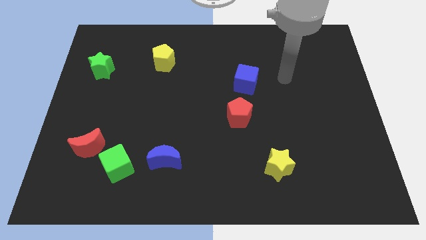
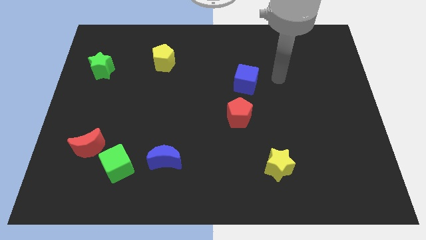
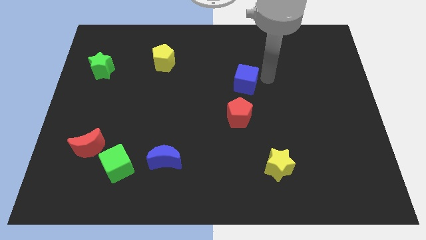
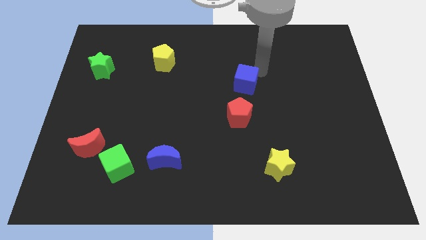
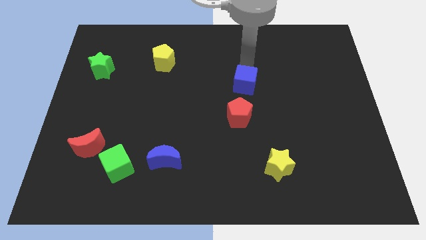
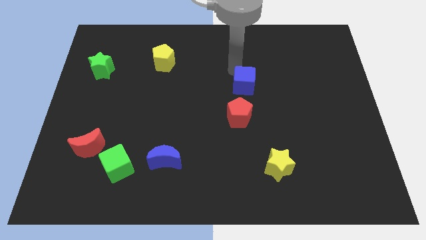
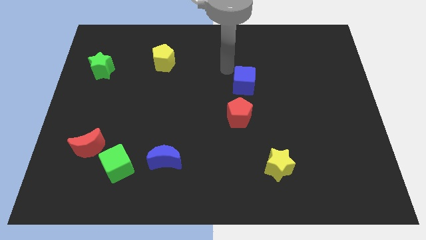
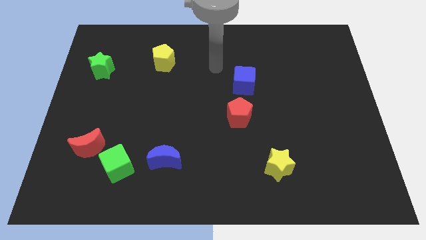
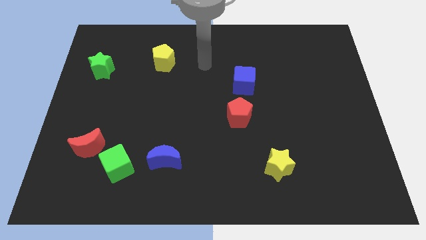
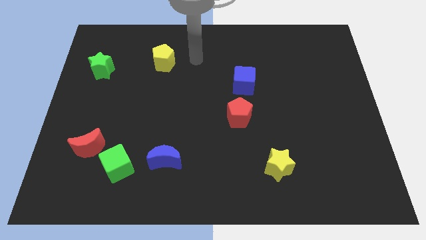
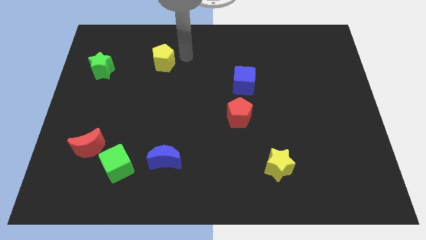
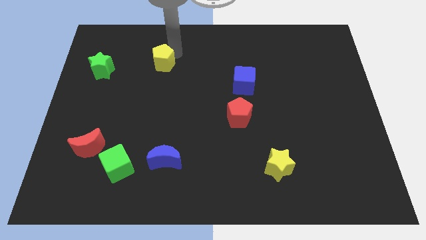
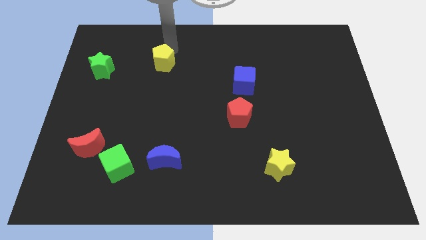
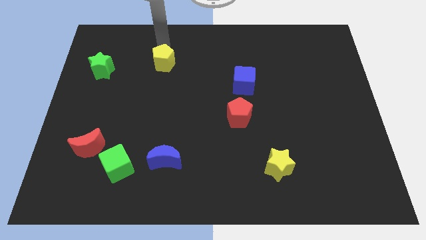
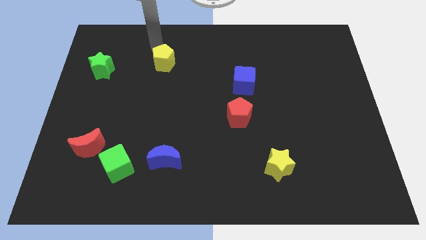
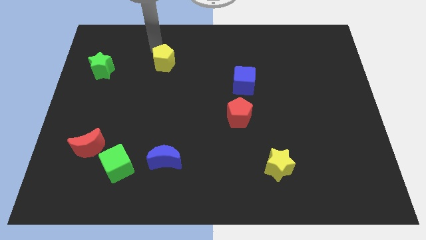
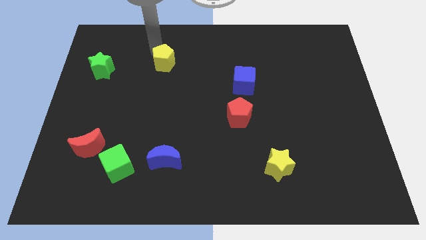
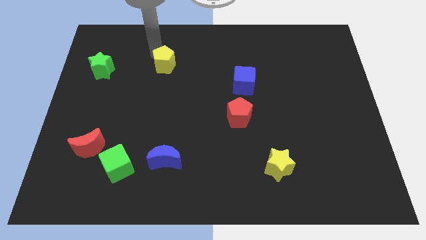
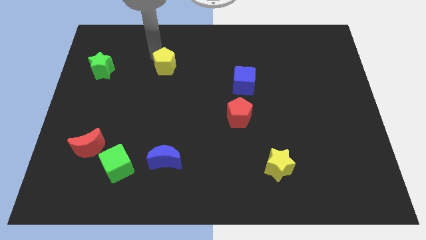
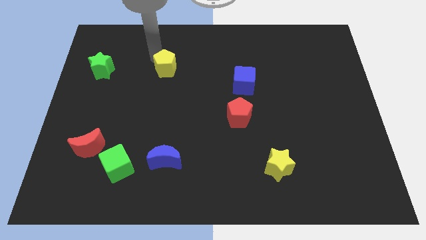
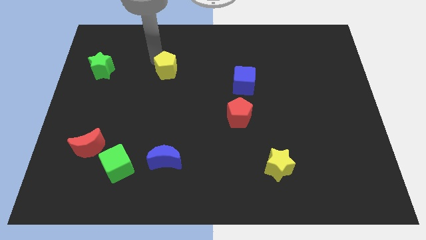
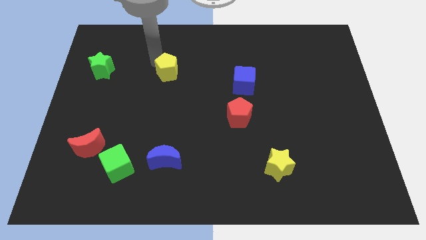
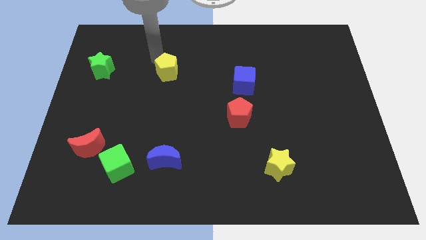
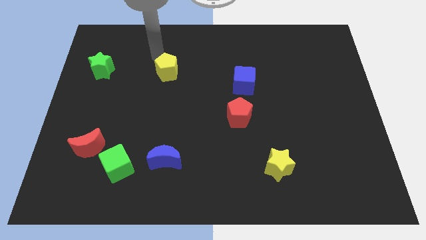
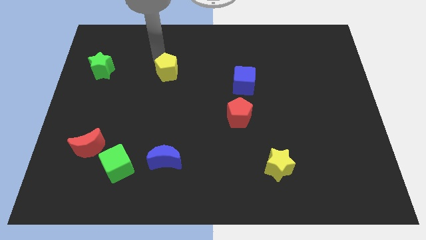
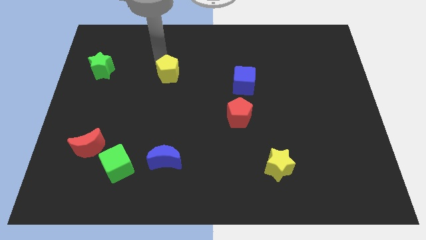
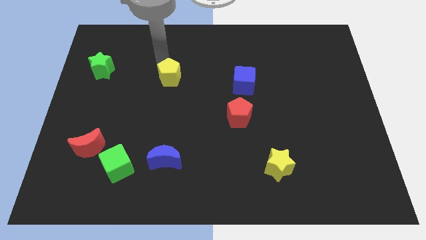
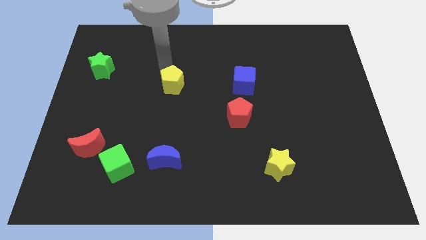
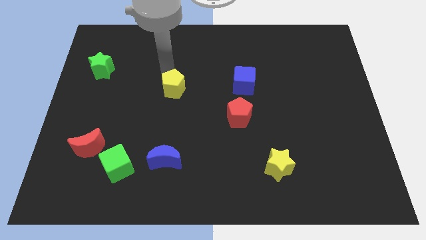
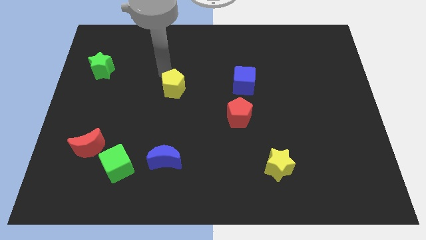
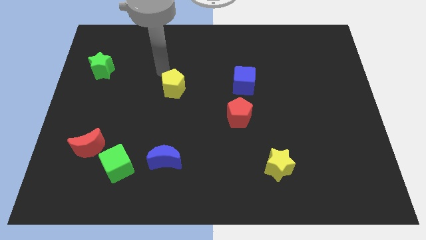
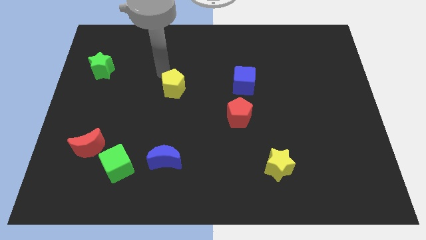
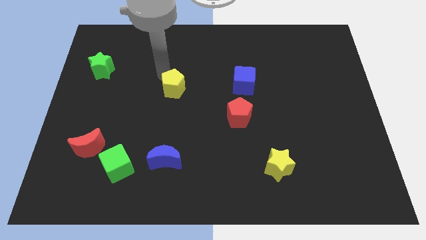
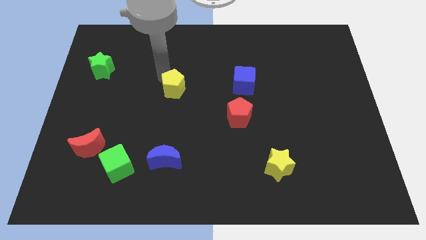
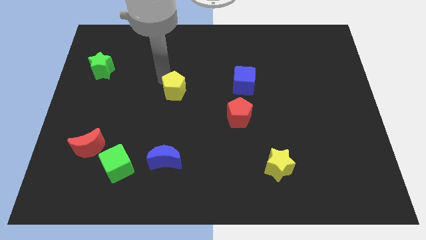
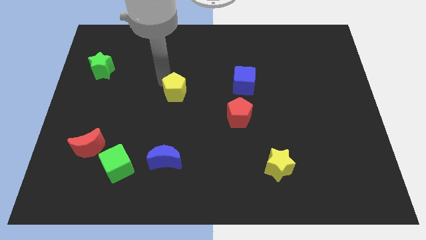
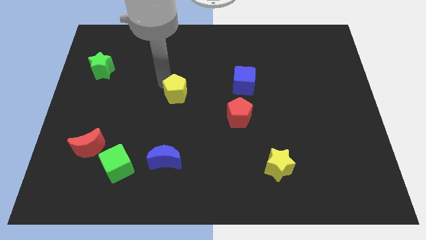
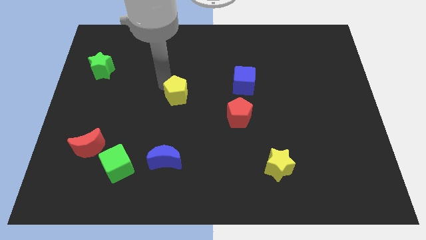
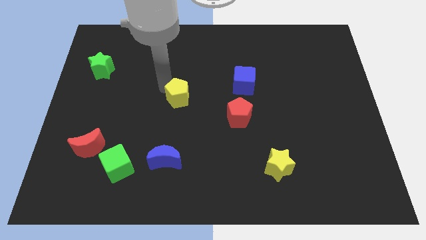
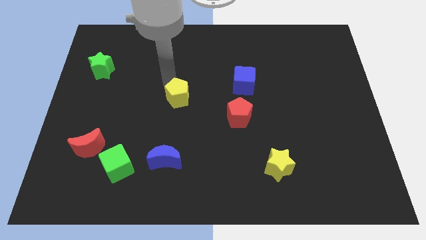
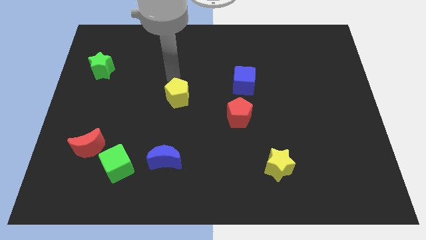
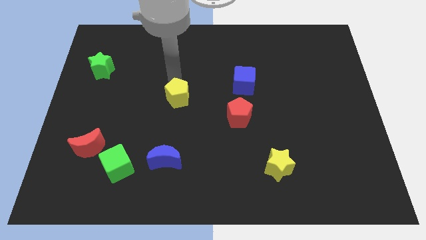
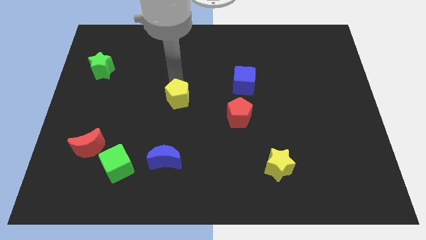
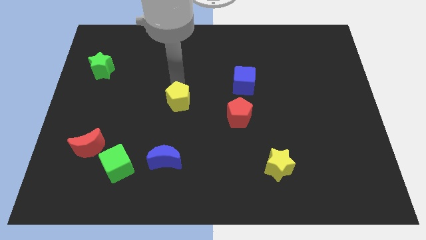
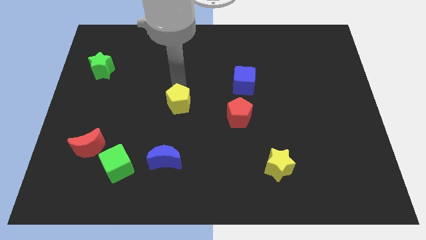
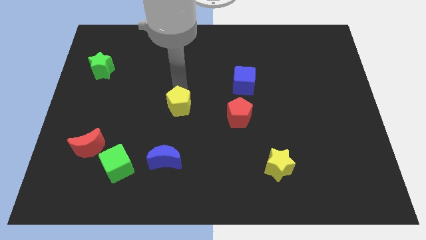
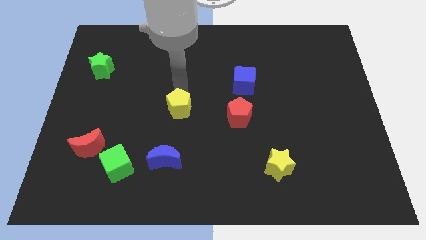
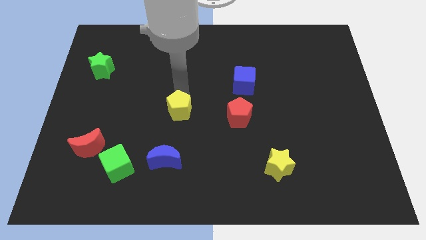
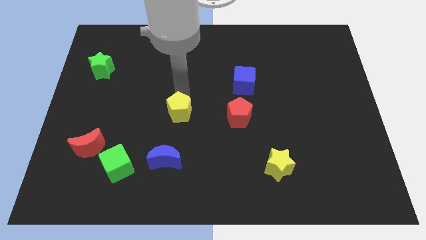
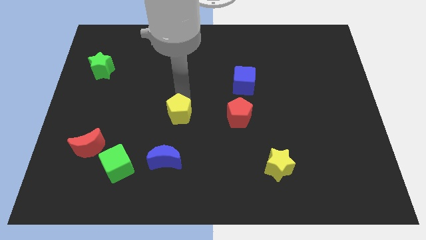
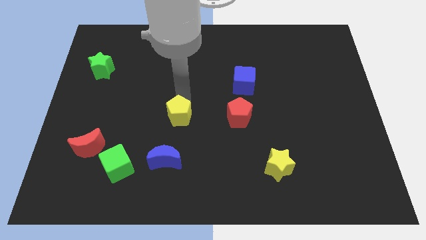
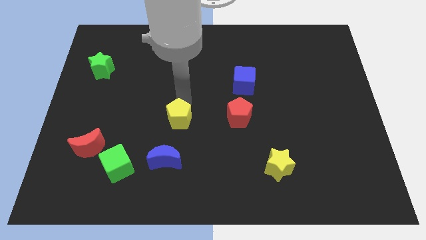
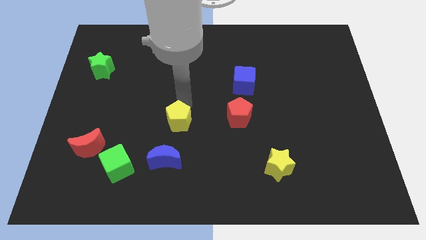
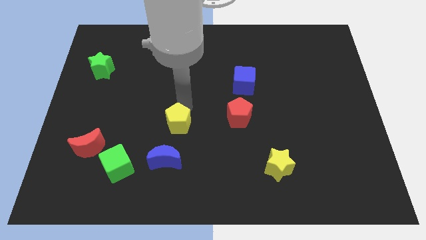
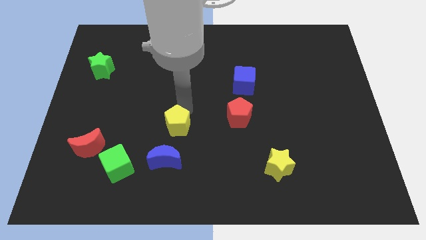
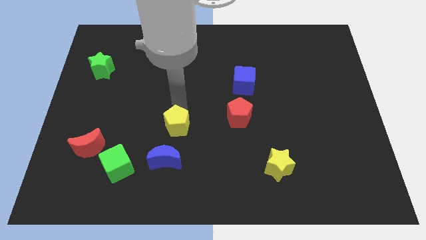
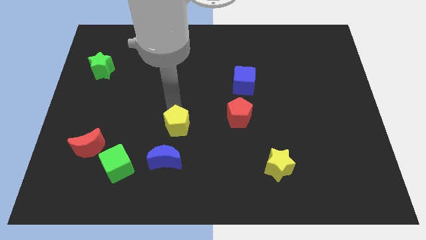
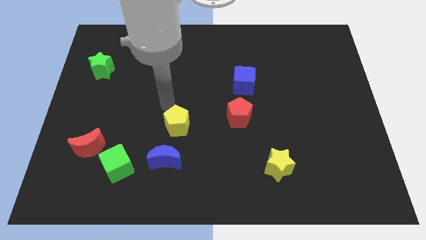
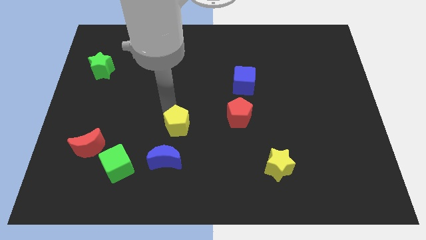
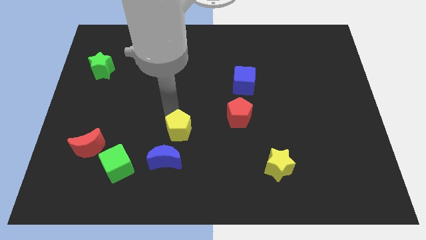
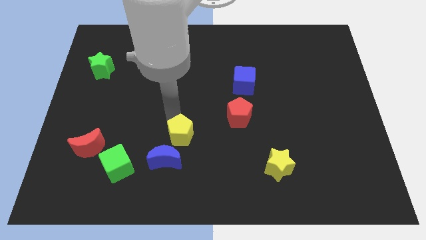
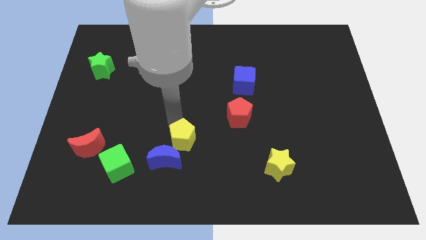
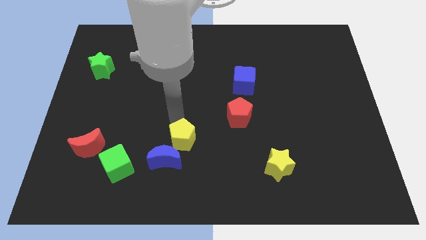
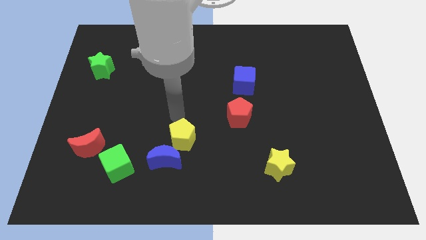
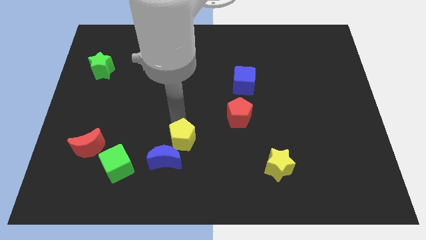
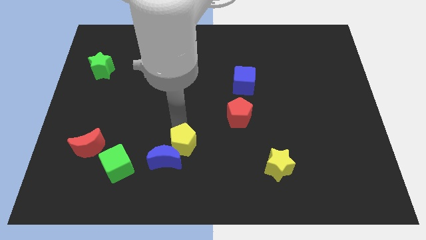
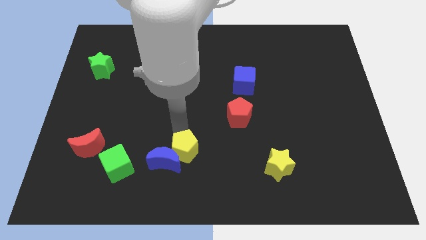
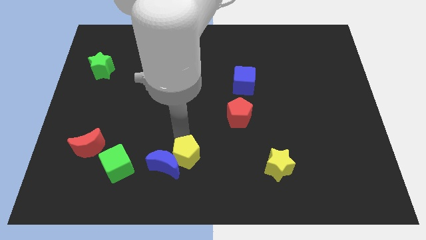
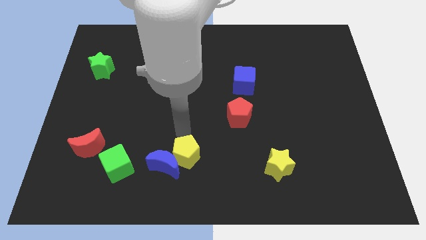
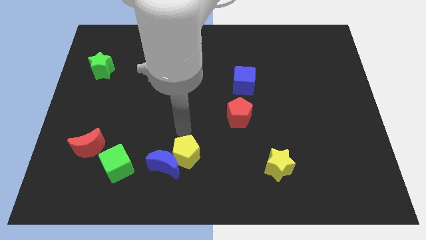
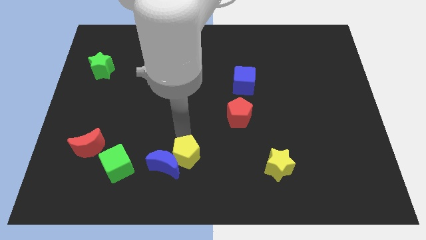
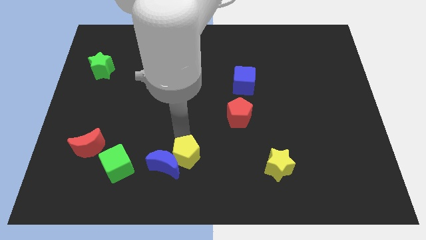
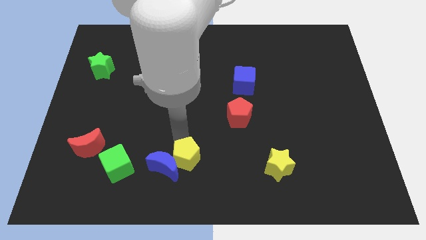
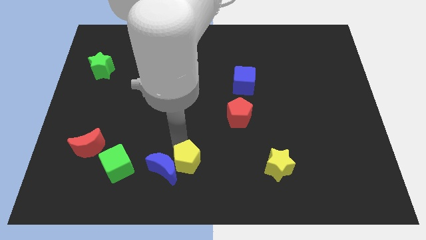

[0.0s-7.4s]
move the yellow pentagon to the bottom right side of the blue moon

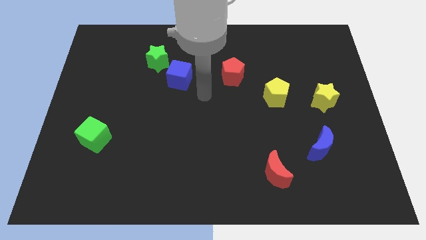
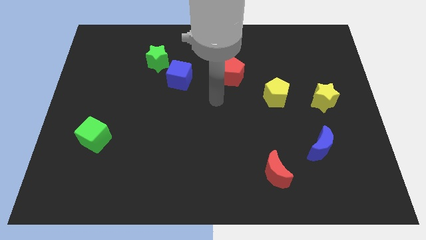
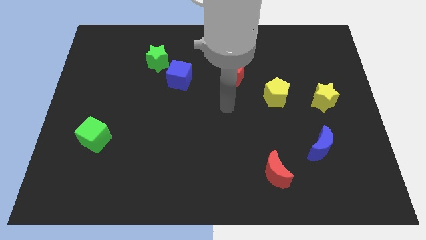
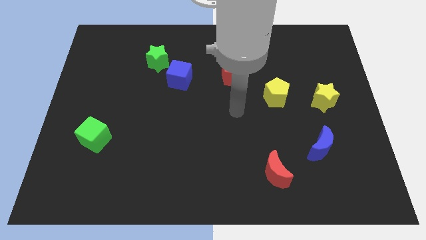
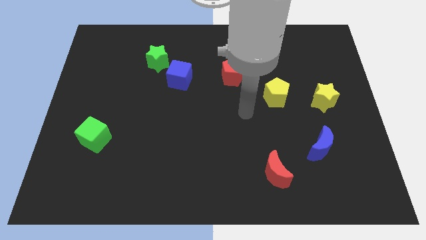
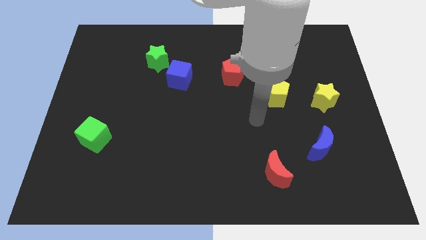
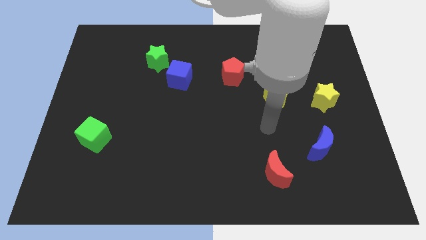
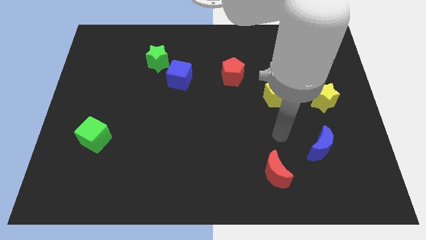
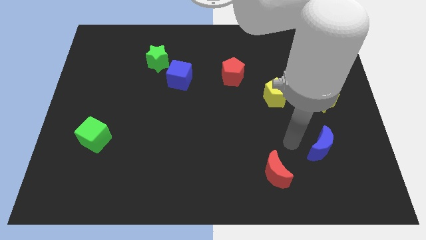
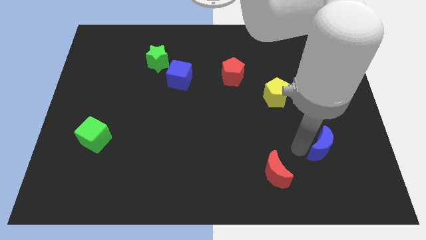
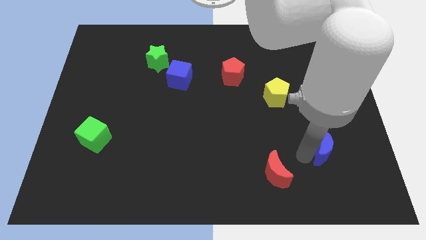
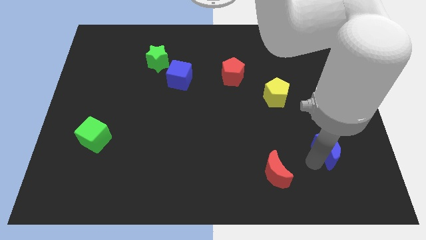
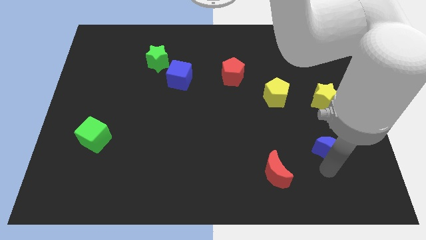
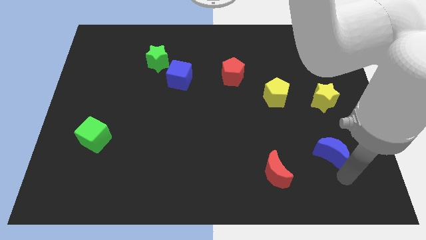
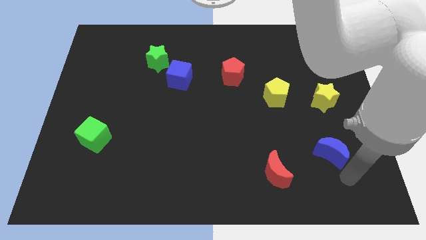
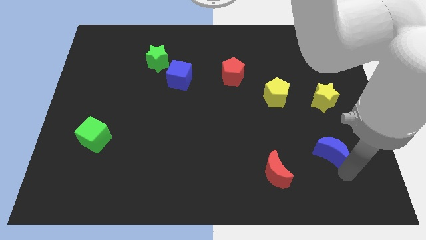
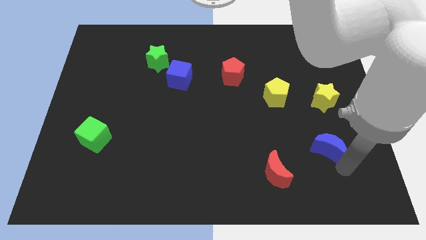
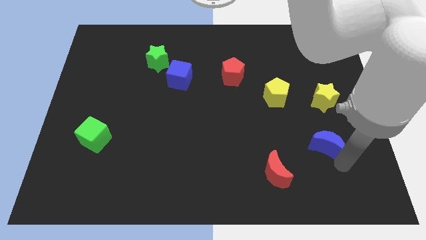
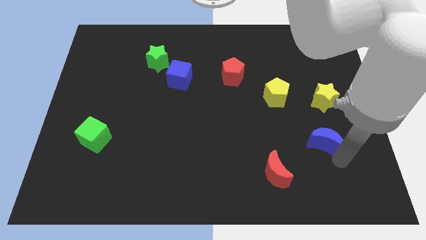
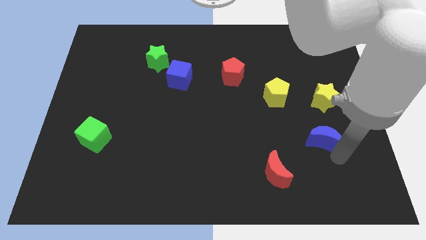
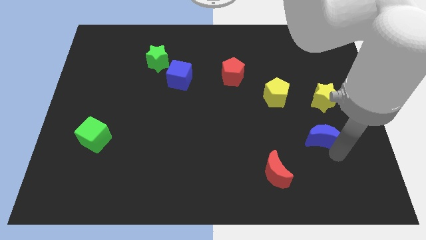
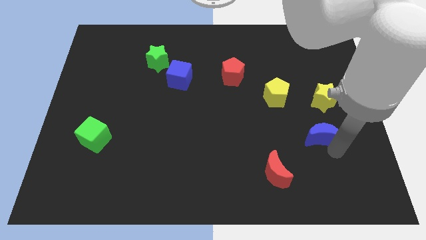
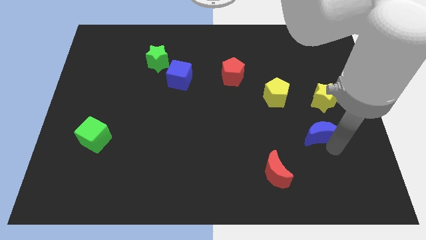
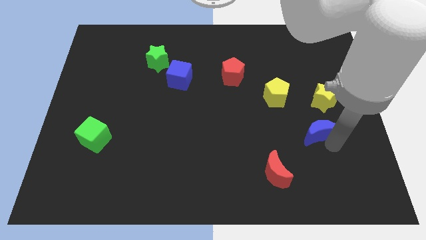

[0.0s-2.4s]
put the blue moon to the bottom left of the yellow star
